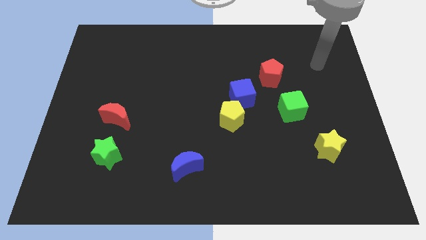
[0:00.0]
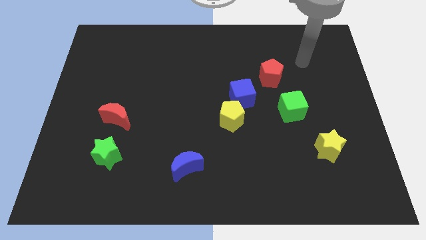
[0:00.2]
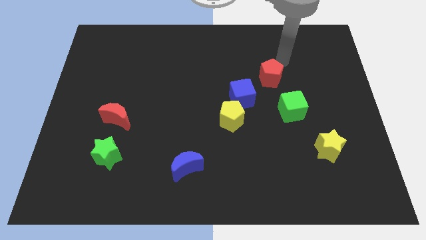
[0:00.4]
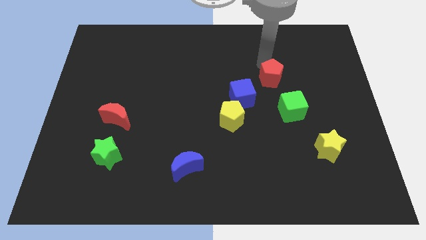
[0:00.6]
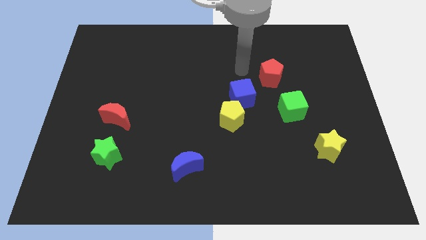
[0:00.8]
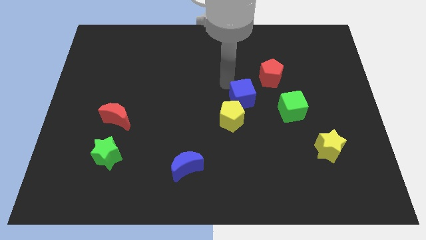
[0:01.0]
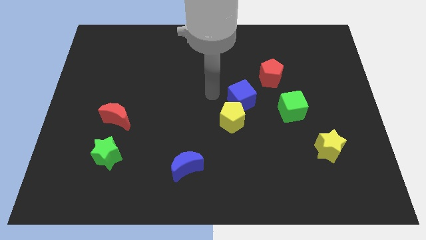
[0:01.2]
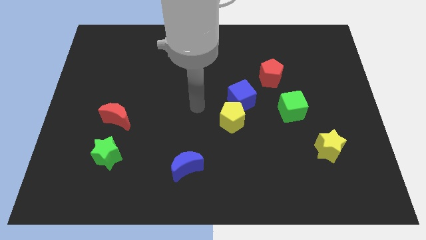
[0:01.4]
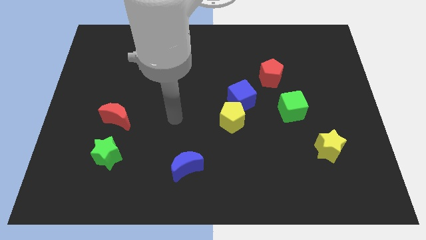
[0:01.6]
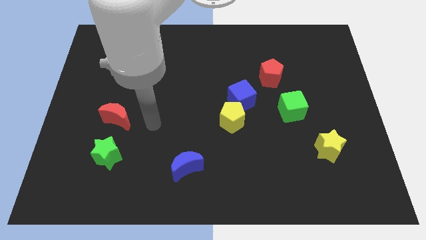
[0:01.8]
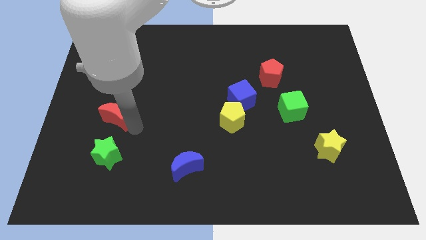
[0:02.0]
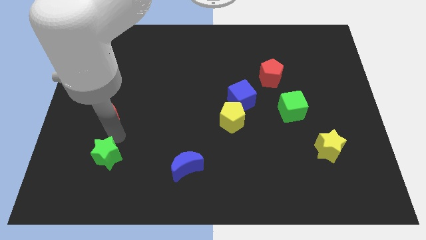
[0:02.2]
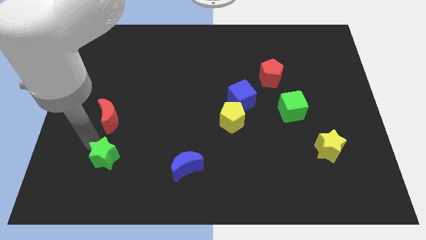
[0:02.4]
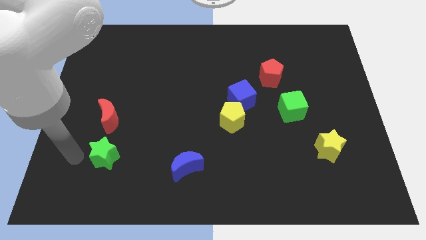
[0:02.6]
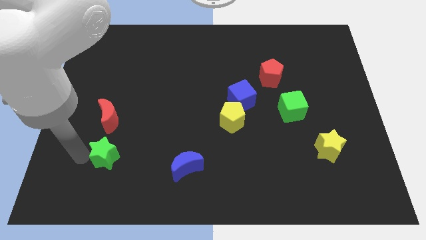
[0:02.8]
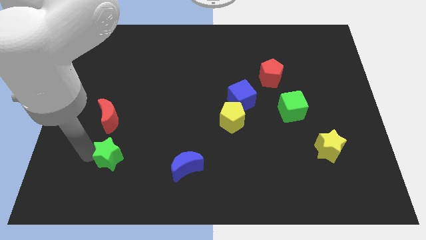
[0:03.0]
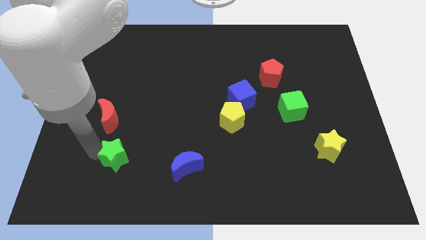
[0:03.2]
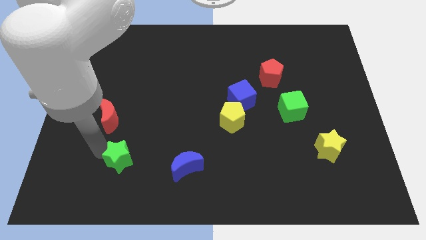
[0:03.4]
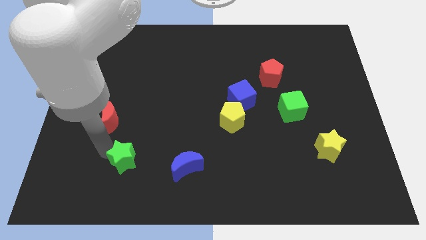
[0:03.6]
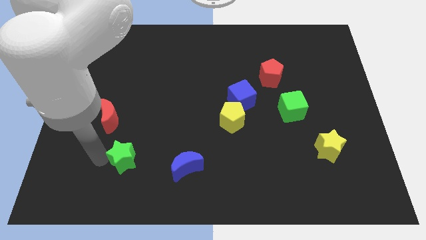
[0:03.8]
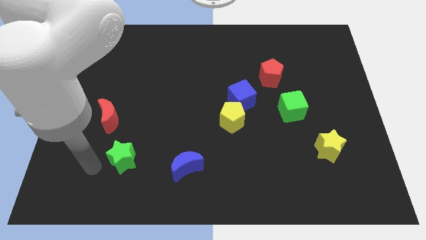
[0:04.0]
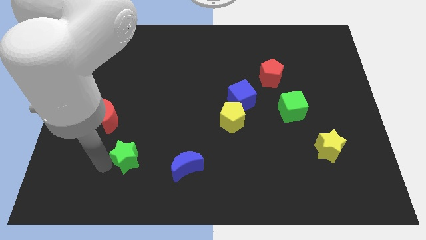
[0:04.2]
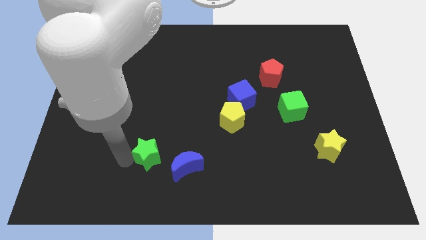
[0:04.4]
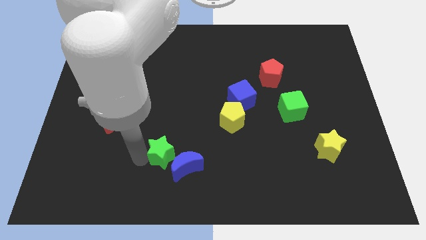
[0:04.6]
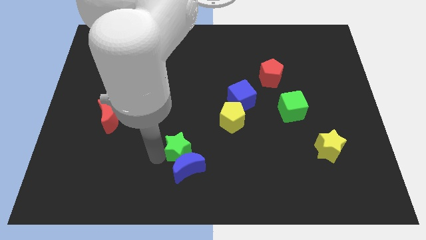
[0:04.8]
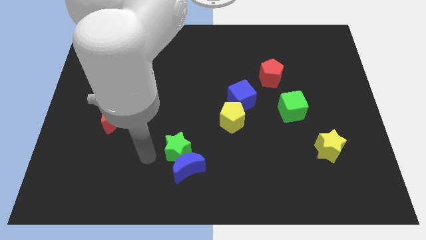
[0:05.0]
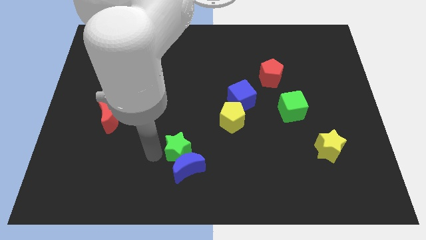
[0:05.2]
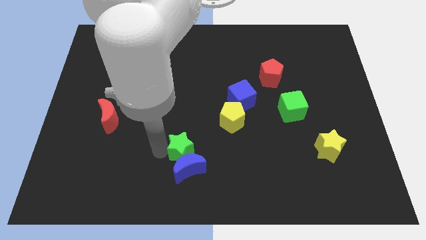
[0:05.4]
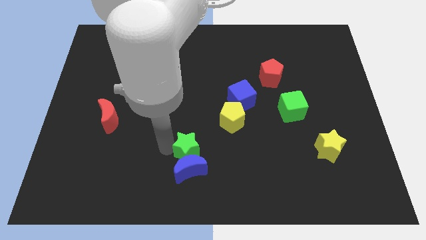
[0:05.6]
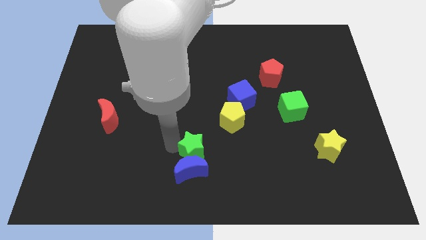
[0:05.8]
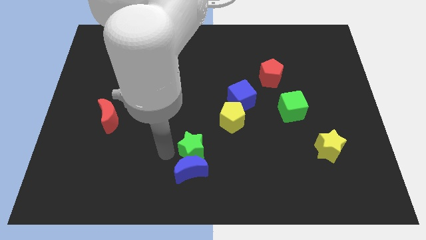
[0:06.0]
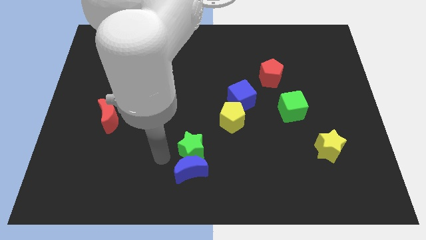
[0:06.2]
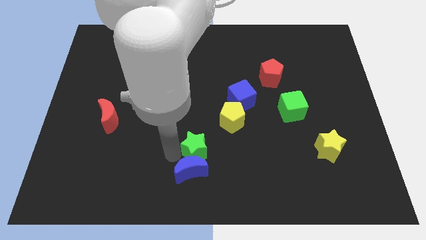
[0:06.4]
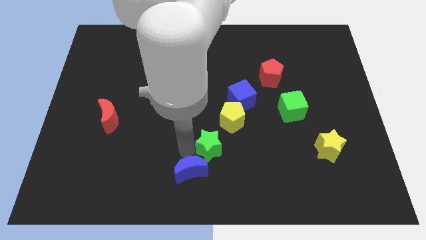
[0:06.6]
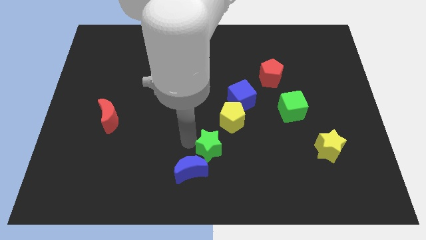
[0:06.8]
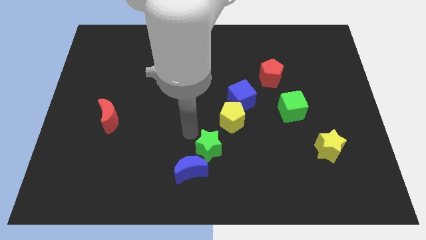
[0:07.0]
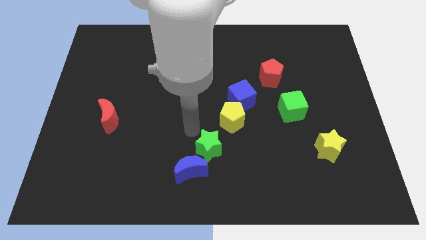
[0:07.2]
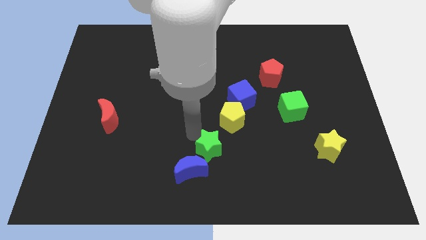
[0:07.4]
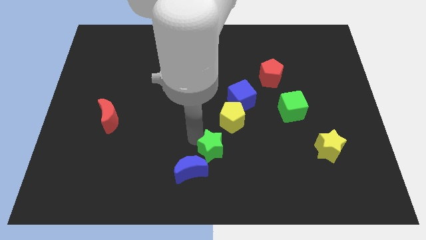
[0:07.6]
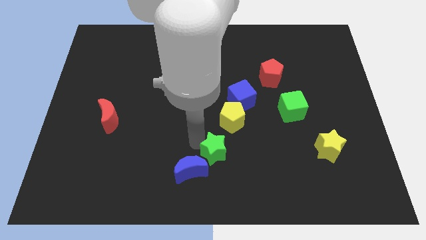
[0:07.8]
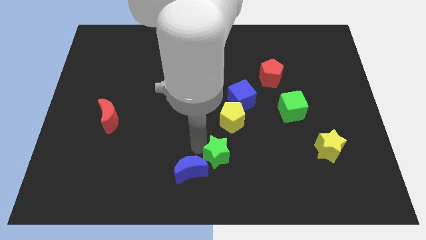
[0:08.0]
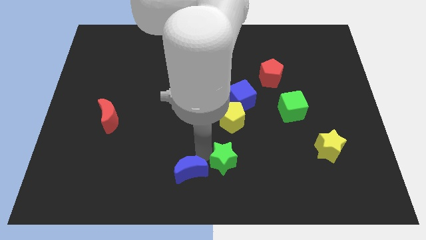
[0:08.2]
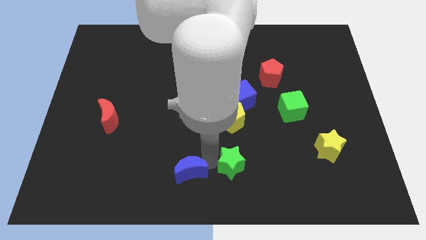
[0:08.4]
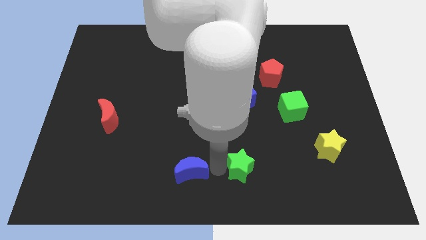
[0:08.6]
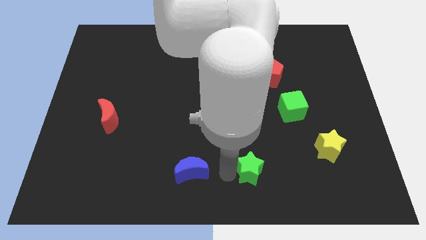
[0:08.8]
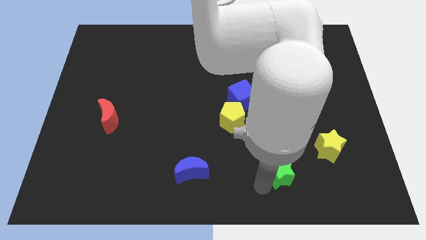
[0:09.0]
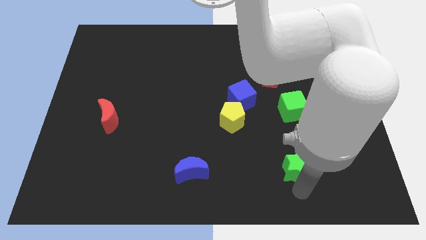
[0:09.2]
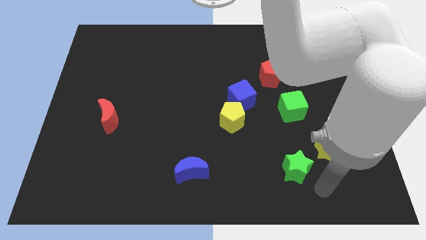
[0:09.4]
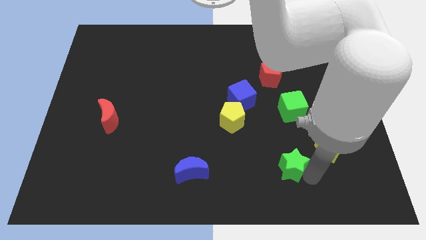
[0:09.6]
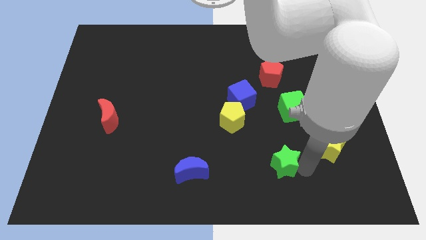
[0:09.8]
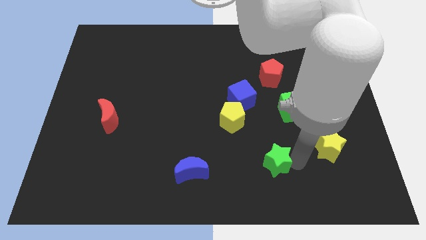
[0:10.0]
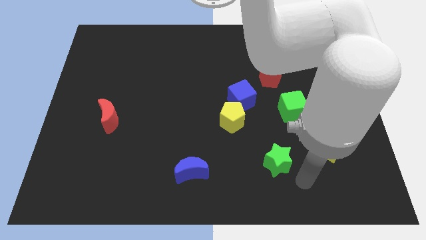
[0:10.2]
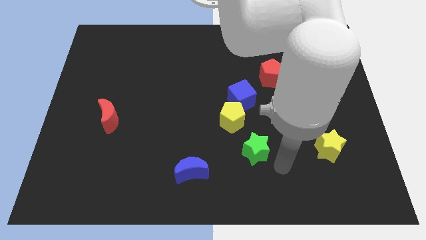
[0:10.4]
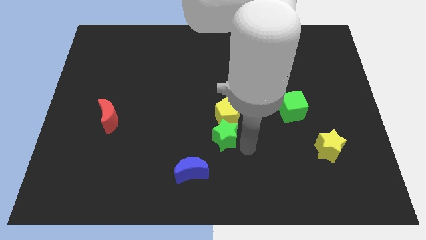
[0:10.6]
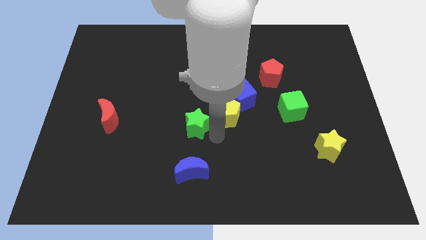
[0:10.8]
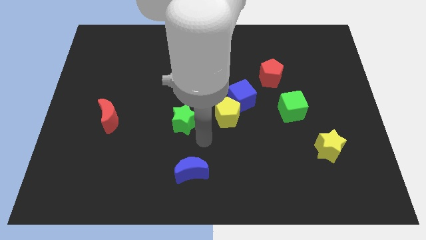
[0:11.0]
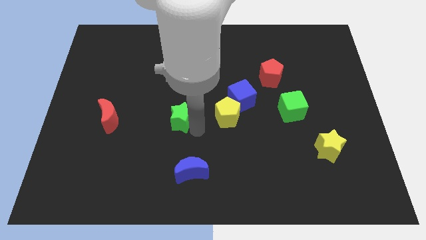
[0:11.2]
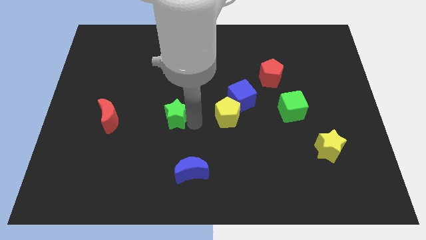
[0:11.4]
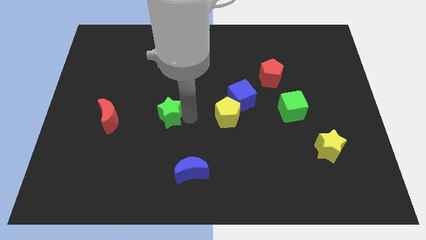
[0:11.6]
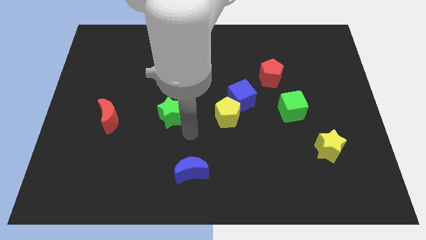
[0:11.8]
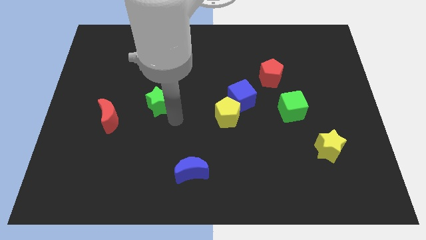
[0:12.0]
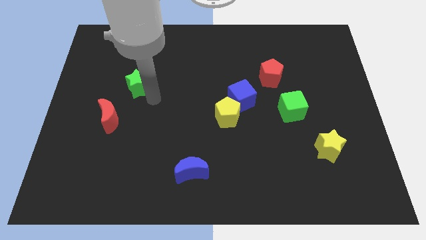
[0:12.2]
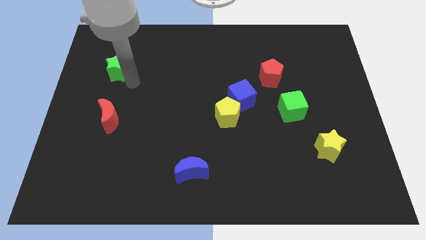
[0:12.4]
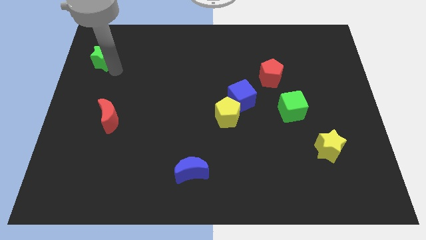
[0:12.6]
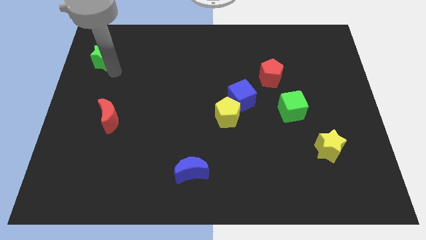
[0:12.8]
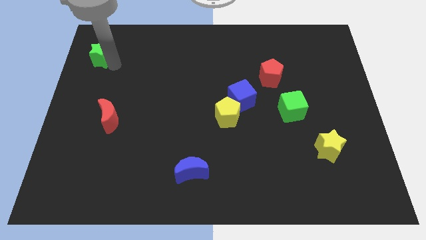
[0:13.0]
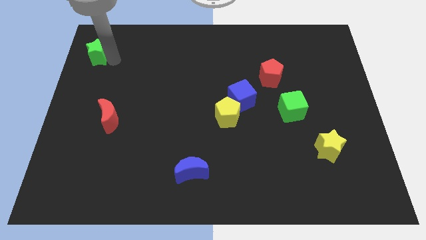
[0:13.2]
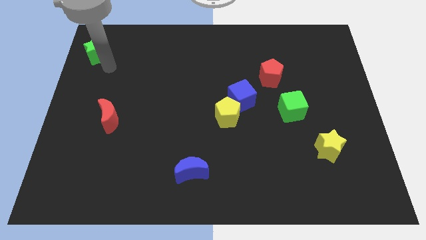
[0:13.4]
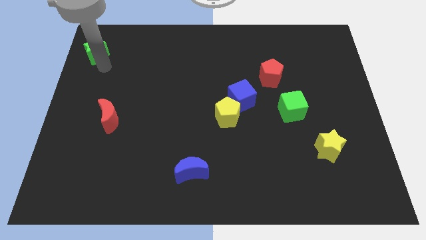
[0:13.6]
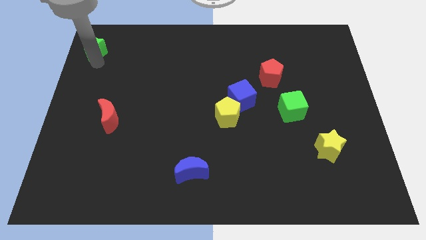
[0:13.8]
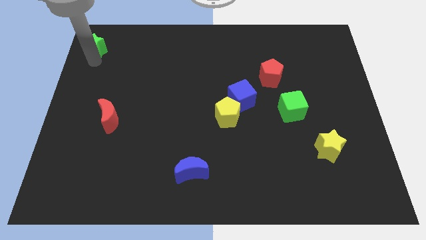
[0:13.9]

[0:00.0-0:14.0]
move the green star to the top left corner
